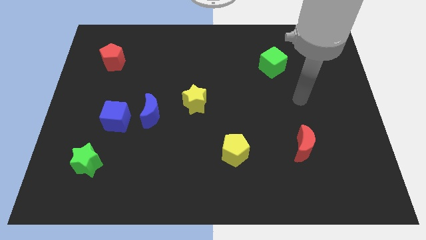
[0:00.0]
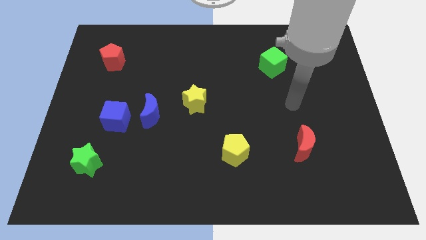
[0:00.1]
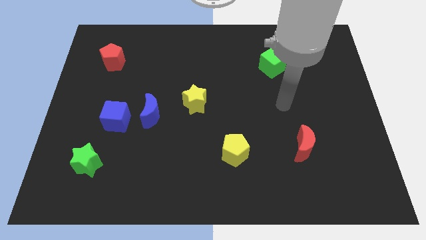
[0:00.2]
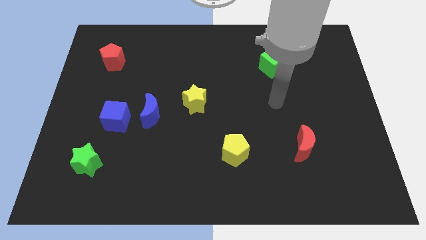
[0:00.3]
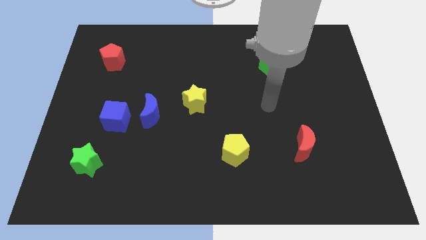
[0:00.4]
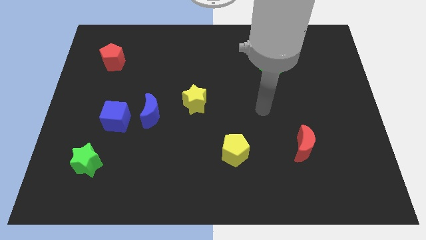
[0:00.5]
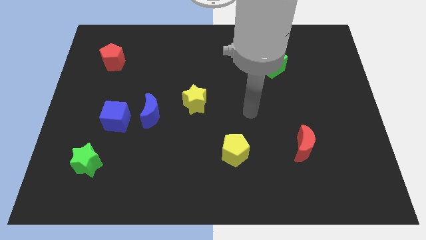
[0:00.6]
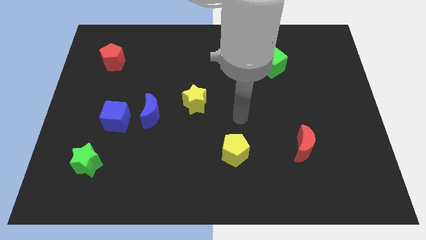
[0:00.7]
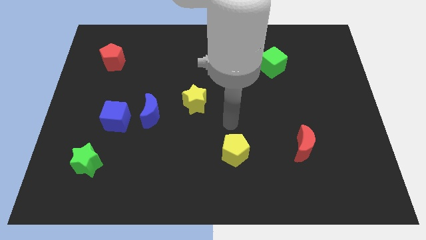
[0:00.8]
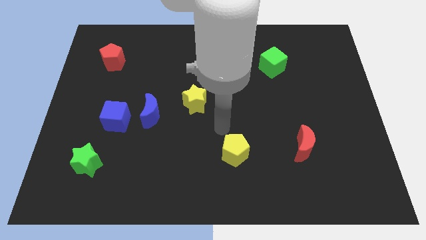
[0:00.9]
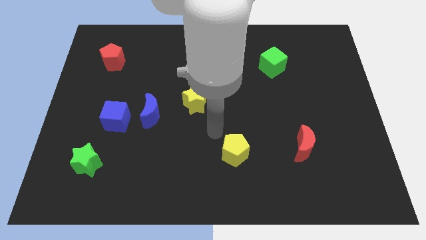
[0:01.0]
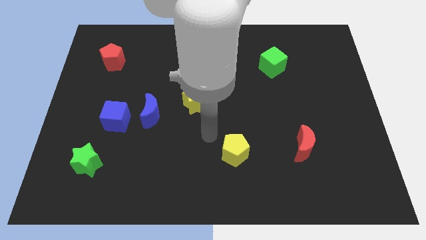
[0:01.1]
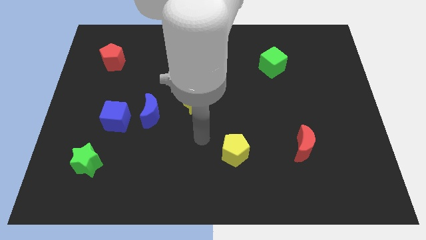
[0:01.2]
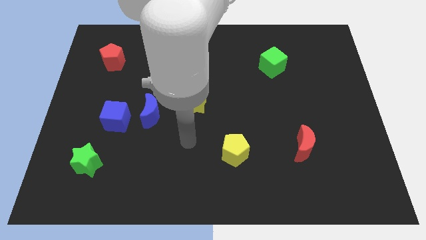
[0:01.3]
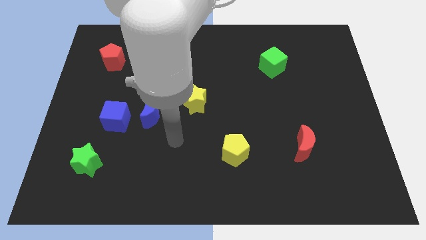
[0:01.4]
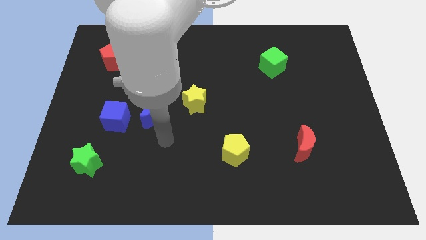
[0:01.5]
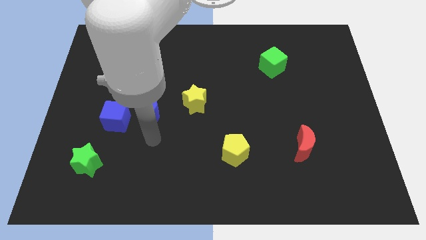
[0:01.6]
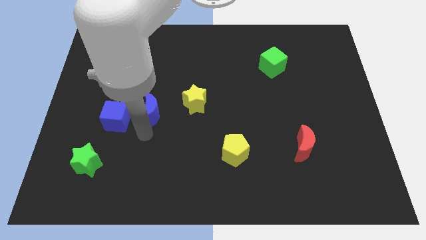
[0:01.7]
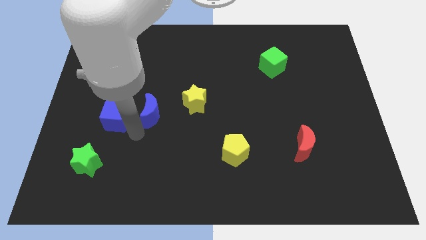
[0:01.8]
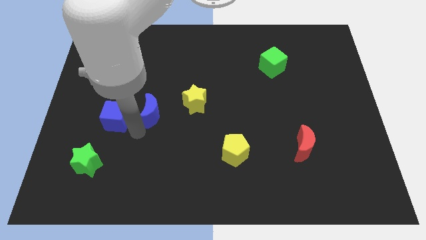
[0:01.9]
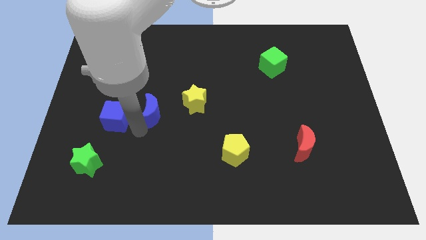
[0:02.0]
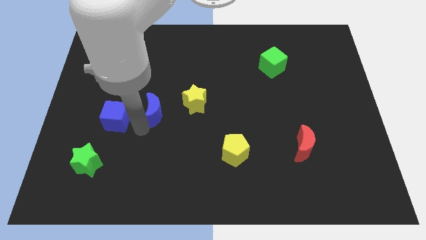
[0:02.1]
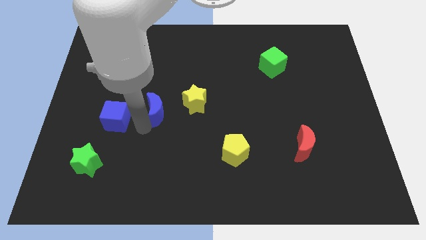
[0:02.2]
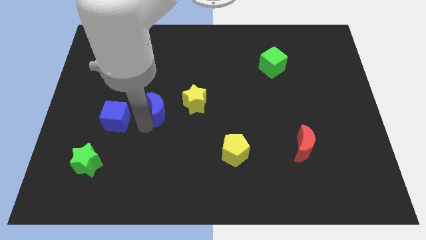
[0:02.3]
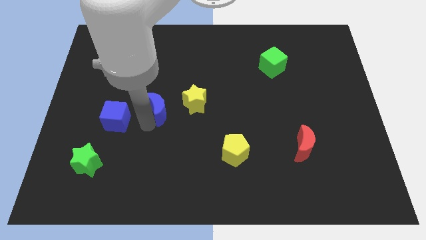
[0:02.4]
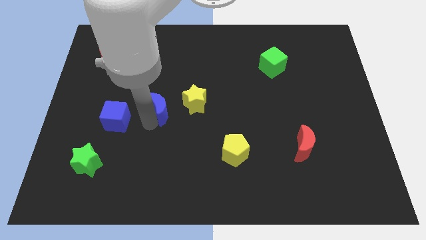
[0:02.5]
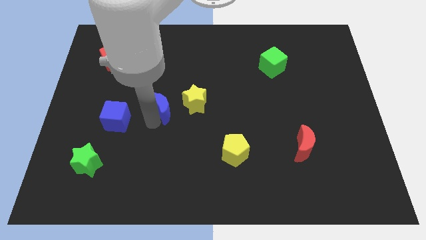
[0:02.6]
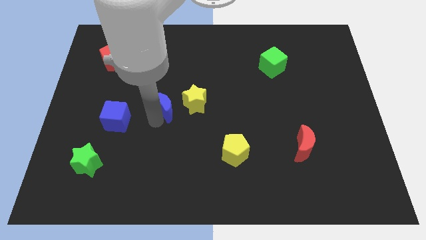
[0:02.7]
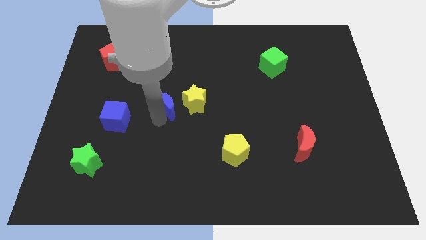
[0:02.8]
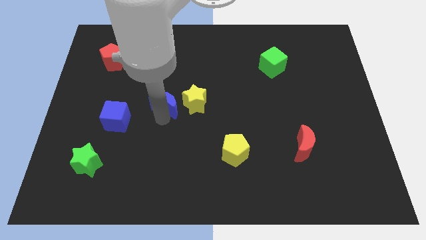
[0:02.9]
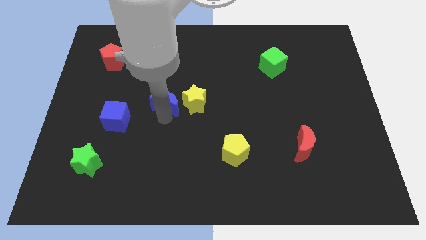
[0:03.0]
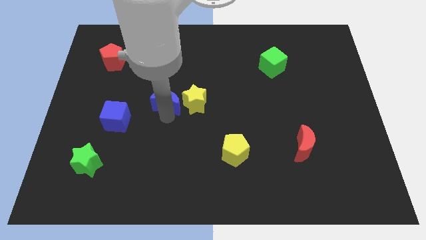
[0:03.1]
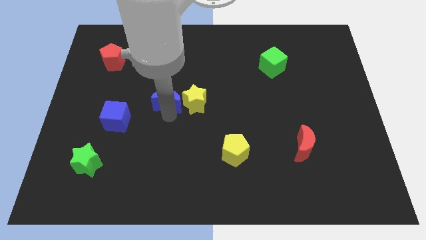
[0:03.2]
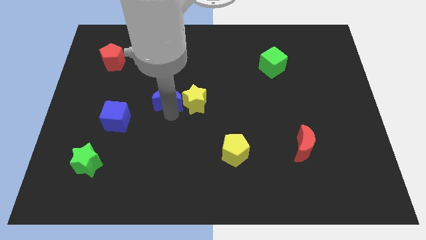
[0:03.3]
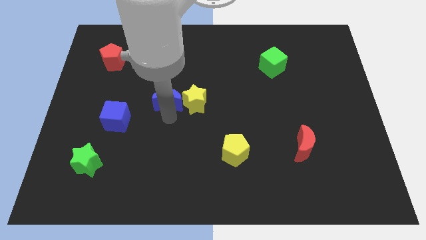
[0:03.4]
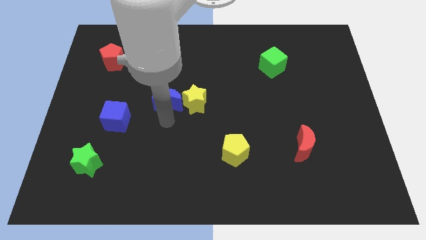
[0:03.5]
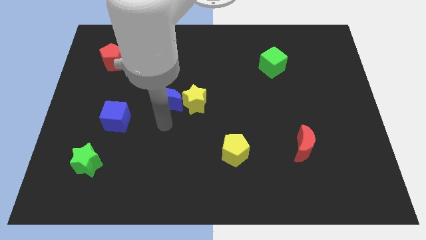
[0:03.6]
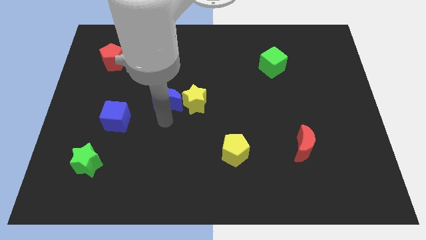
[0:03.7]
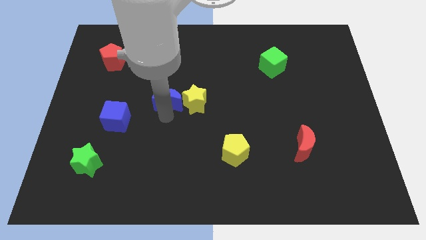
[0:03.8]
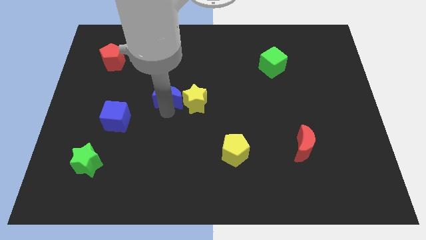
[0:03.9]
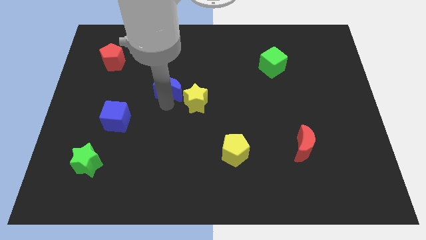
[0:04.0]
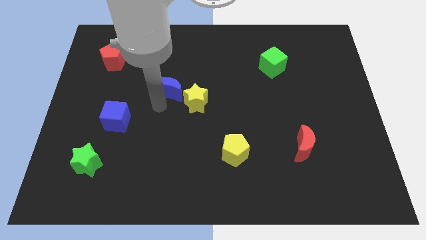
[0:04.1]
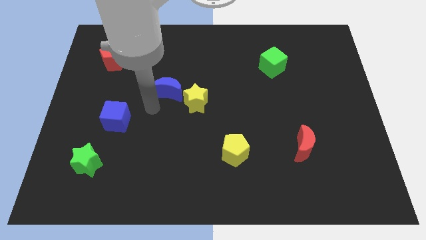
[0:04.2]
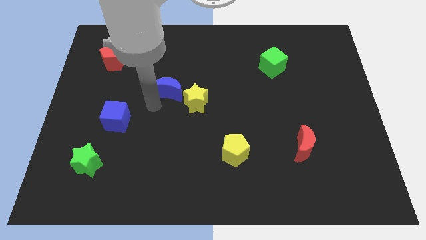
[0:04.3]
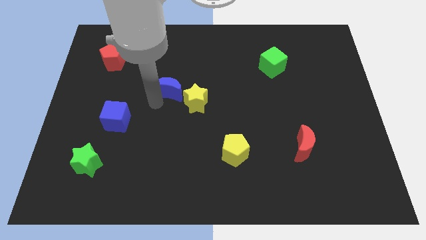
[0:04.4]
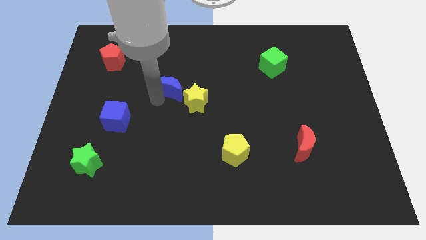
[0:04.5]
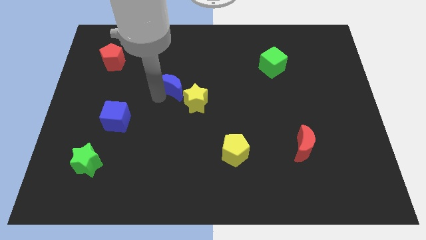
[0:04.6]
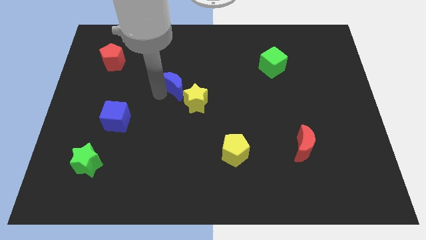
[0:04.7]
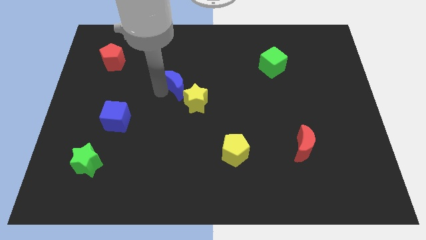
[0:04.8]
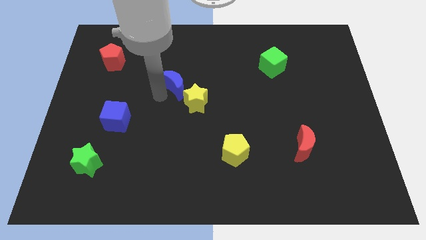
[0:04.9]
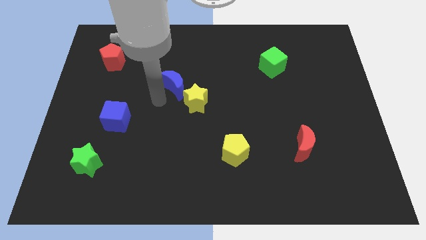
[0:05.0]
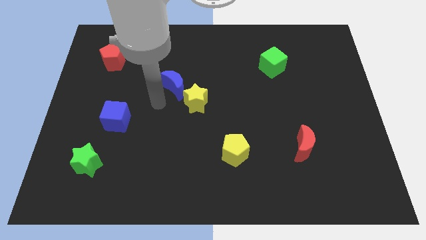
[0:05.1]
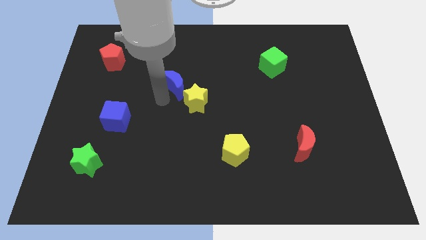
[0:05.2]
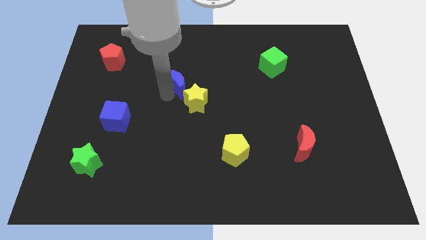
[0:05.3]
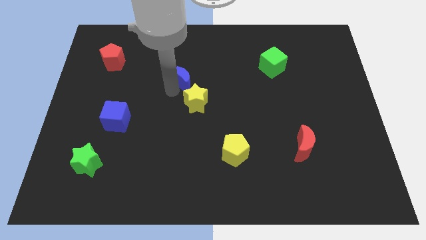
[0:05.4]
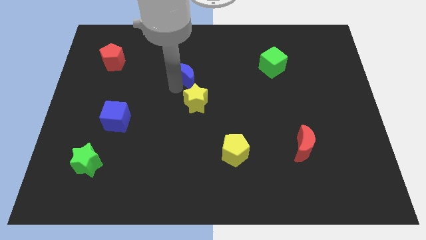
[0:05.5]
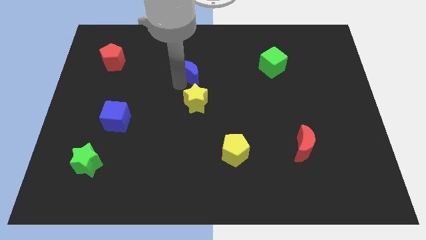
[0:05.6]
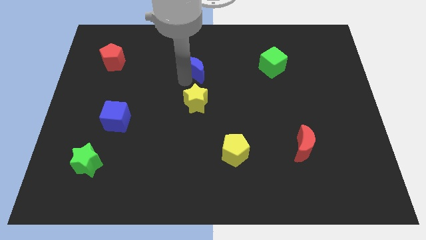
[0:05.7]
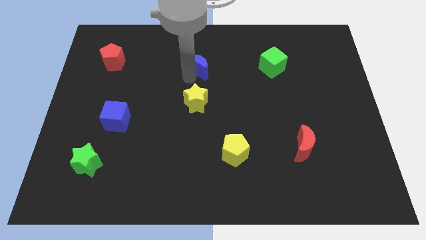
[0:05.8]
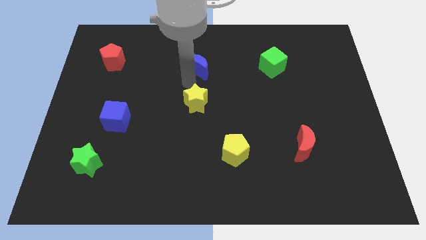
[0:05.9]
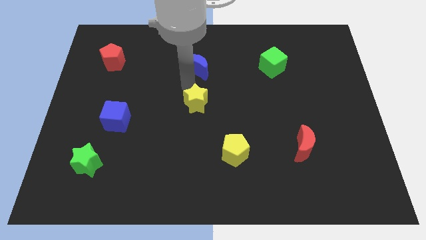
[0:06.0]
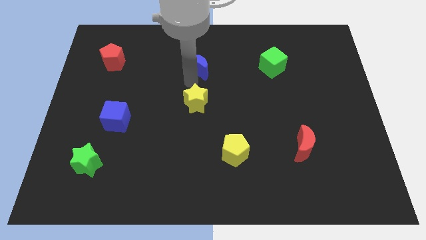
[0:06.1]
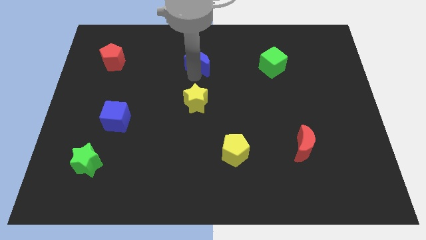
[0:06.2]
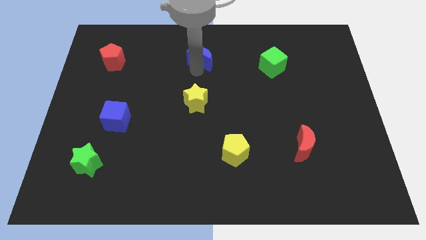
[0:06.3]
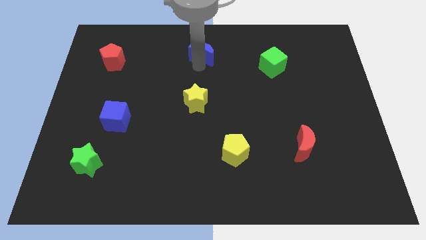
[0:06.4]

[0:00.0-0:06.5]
slide the blue moon to the top side
